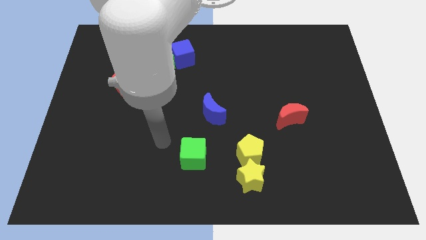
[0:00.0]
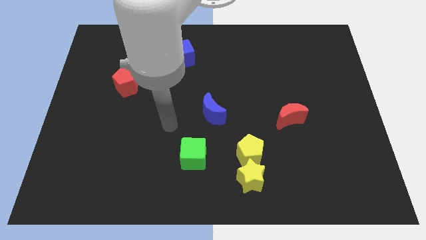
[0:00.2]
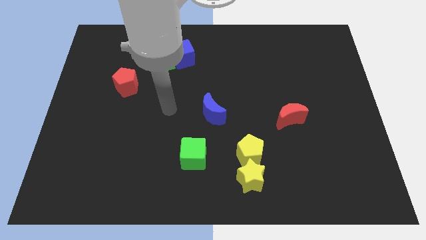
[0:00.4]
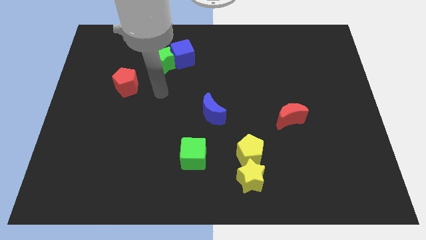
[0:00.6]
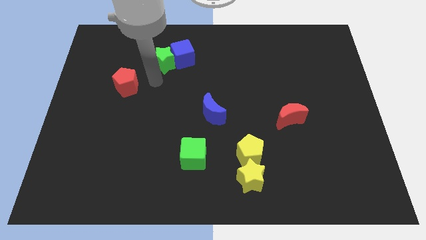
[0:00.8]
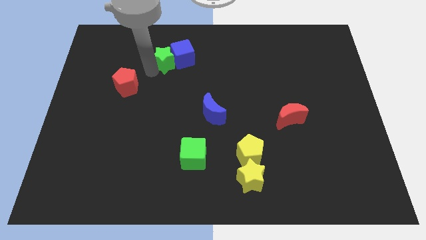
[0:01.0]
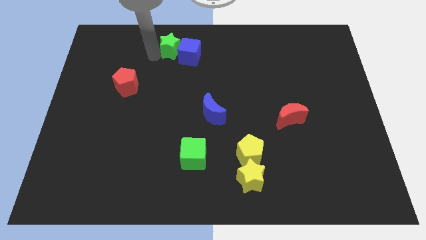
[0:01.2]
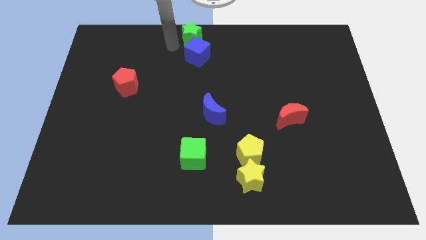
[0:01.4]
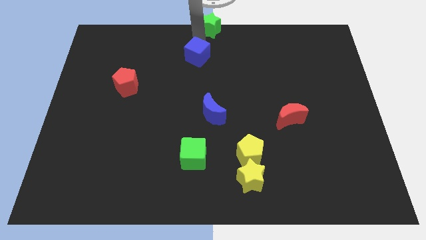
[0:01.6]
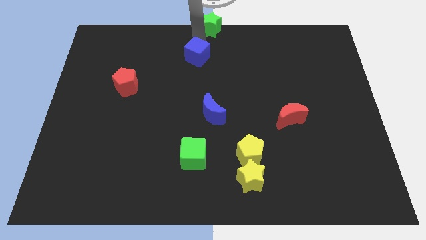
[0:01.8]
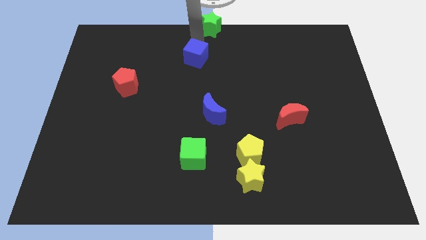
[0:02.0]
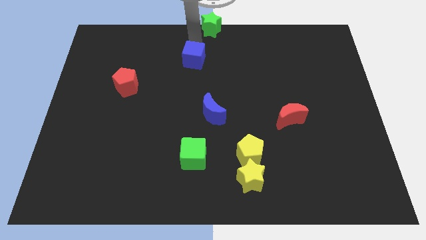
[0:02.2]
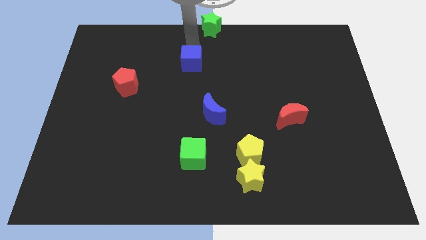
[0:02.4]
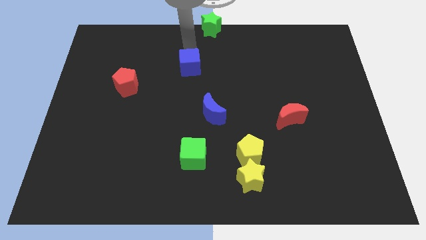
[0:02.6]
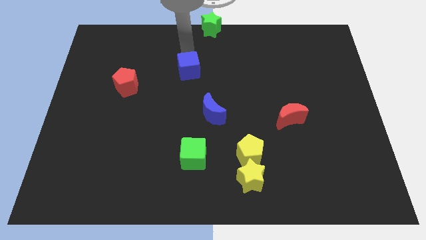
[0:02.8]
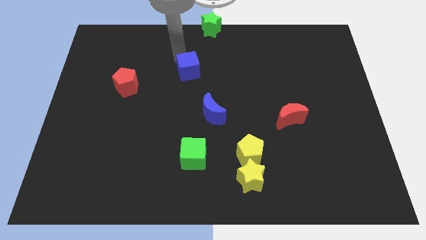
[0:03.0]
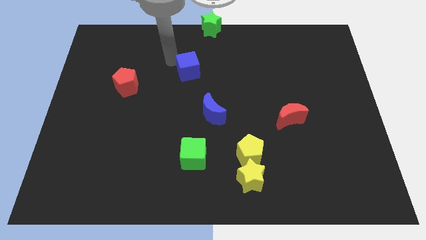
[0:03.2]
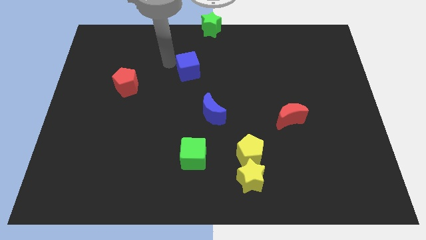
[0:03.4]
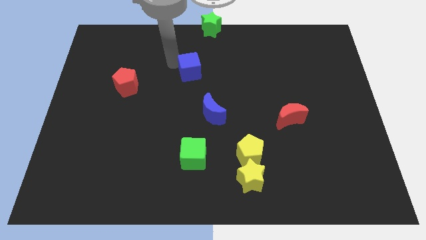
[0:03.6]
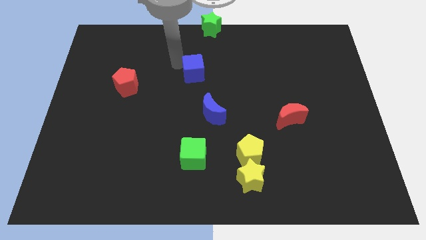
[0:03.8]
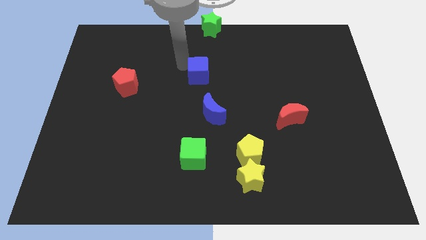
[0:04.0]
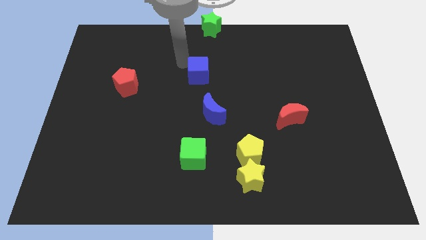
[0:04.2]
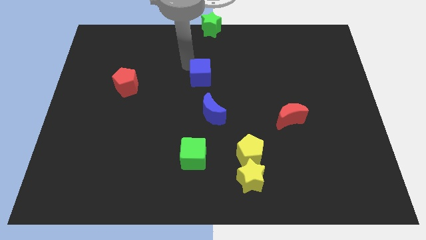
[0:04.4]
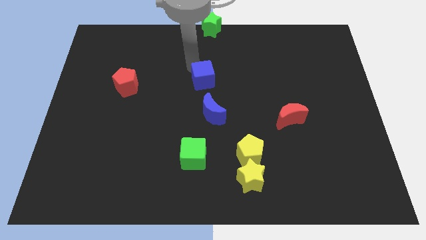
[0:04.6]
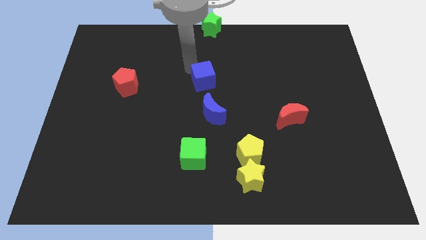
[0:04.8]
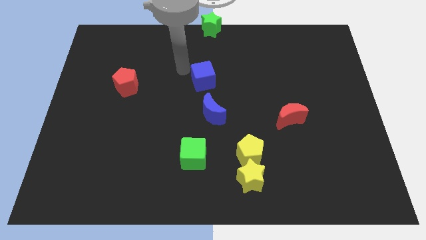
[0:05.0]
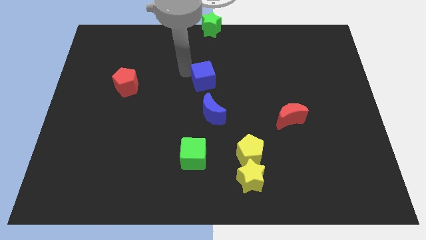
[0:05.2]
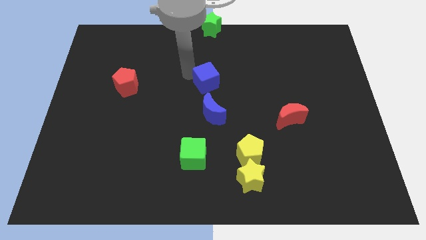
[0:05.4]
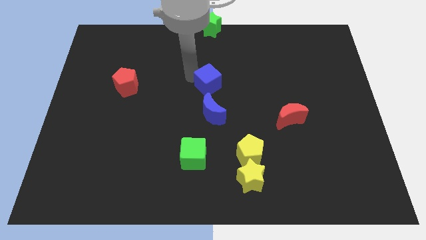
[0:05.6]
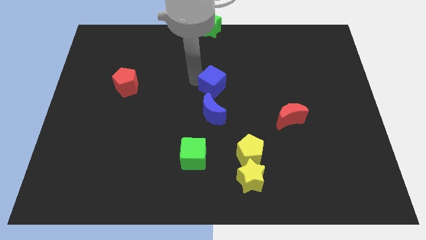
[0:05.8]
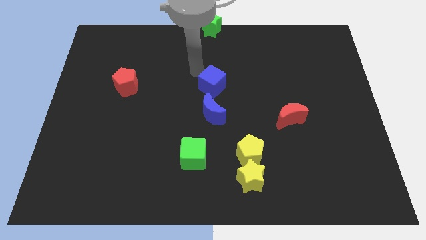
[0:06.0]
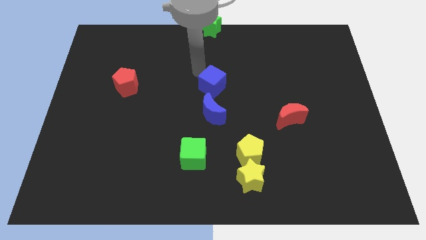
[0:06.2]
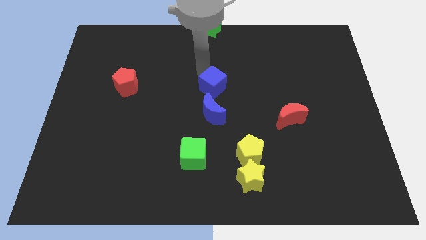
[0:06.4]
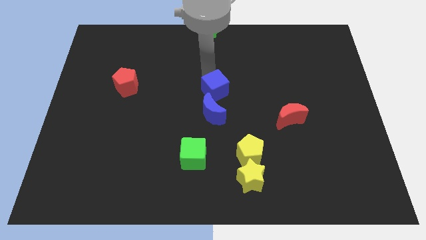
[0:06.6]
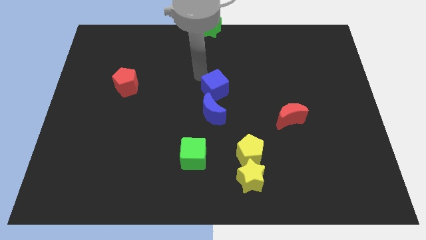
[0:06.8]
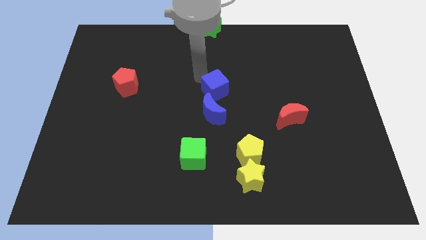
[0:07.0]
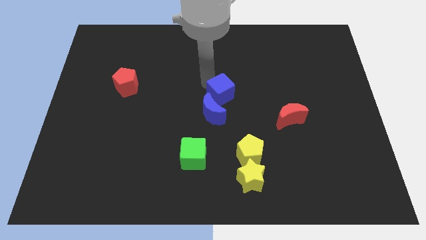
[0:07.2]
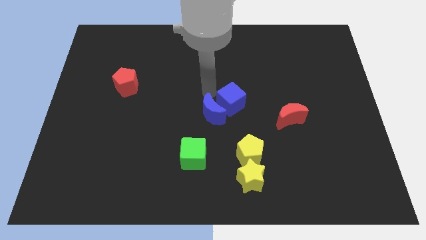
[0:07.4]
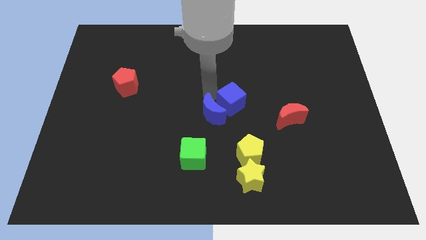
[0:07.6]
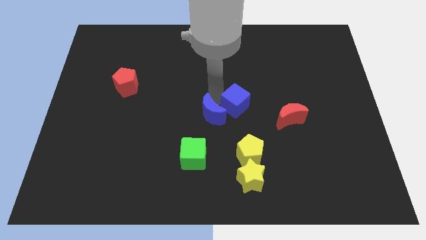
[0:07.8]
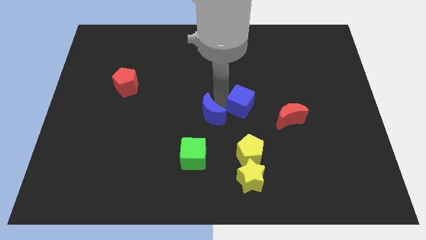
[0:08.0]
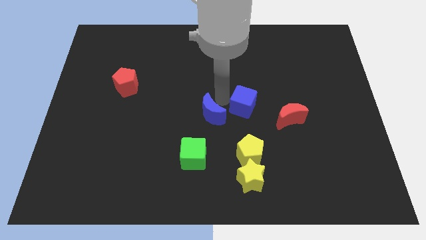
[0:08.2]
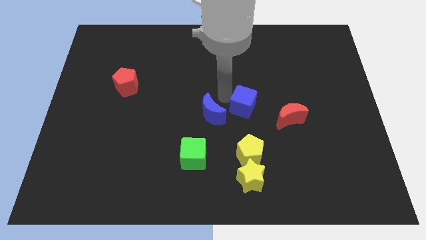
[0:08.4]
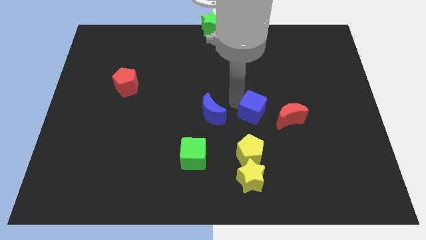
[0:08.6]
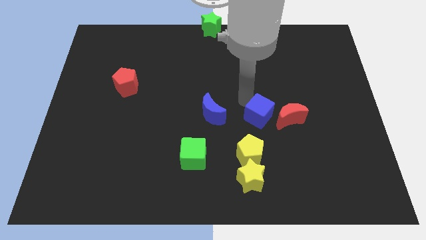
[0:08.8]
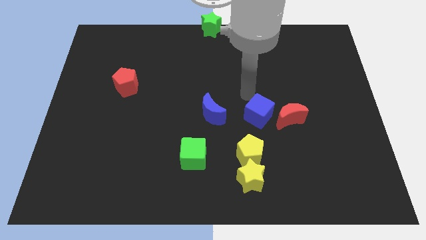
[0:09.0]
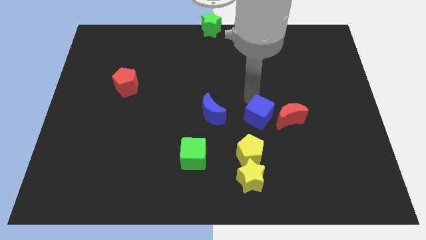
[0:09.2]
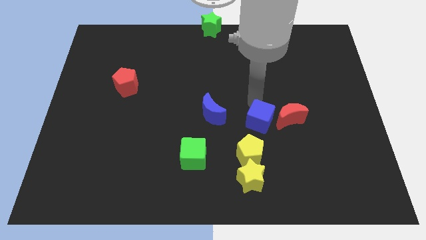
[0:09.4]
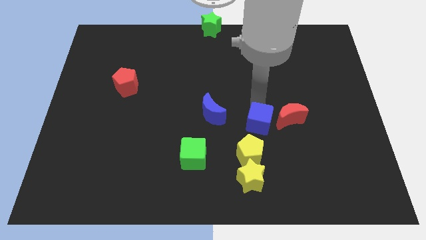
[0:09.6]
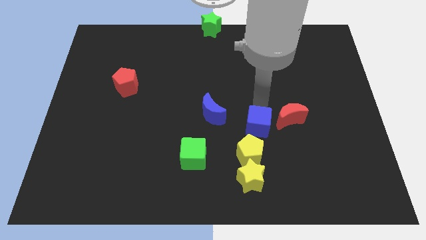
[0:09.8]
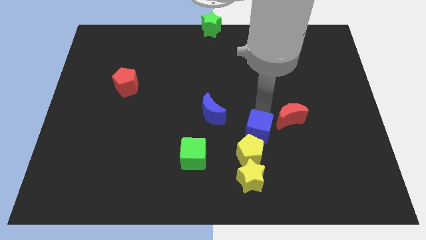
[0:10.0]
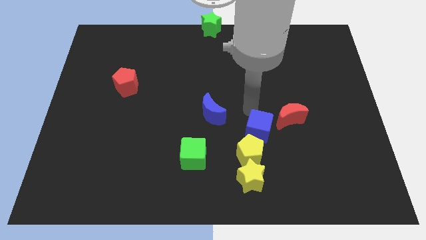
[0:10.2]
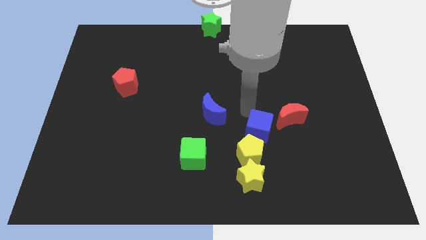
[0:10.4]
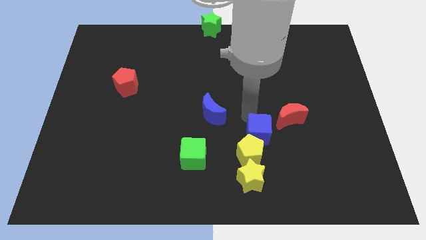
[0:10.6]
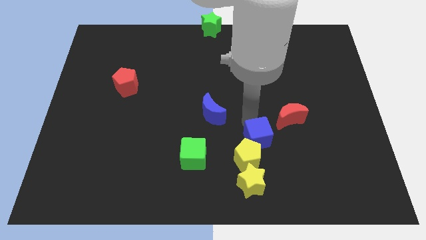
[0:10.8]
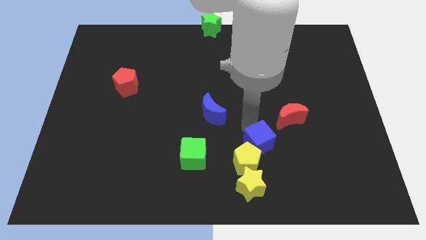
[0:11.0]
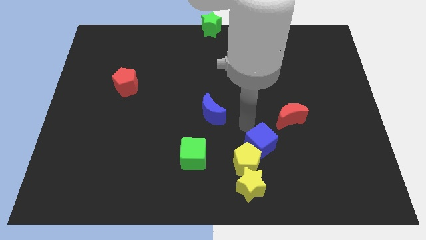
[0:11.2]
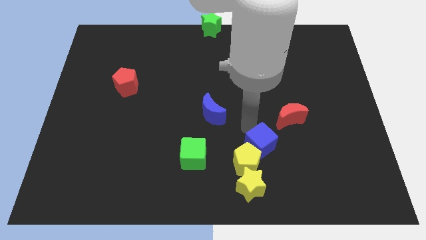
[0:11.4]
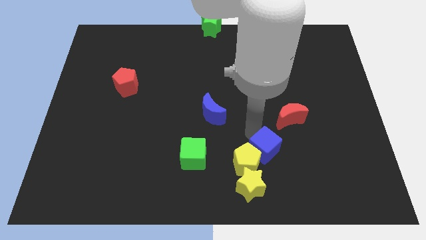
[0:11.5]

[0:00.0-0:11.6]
push the blue cube to the top right of the yellow star

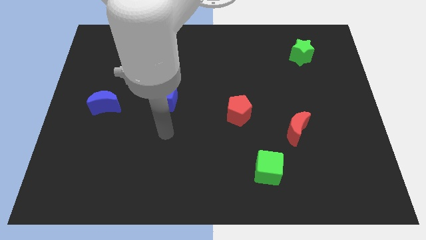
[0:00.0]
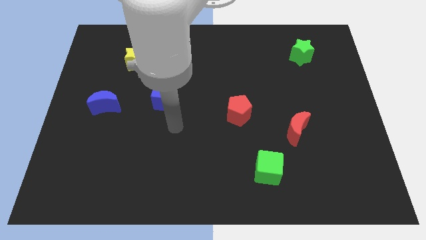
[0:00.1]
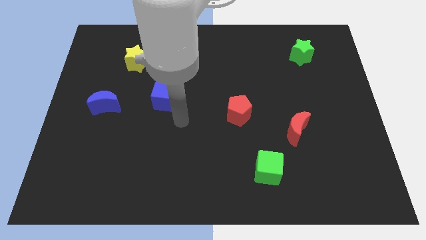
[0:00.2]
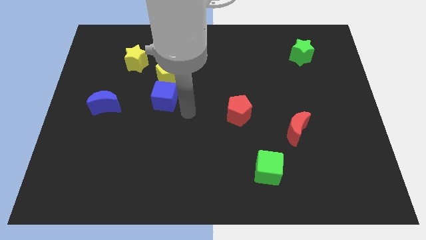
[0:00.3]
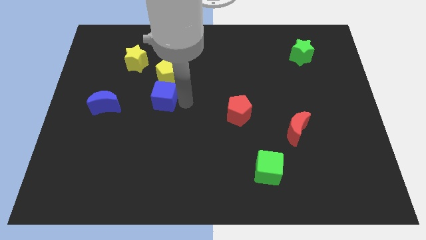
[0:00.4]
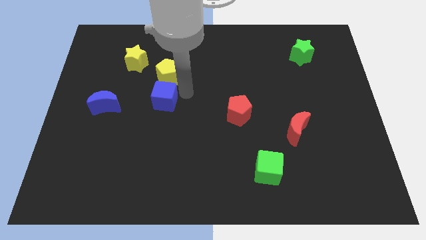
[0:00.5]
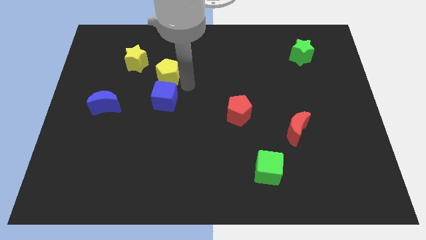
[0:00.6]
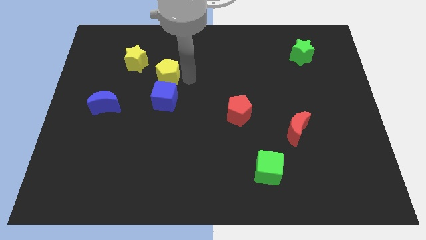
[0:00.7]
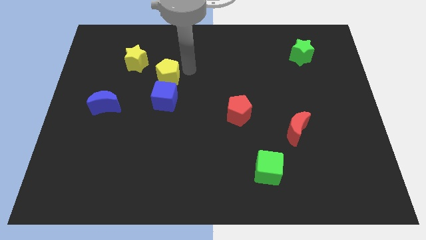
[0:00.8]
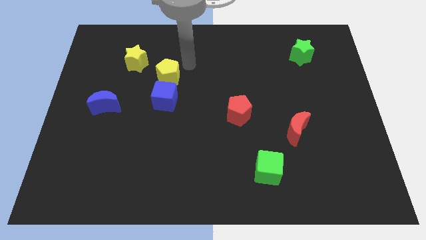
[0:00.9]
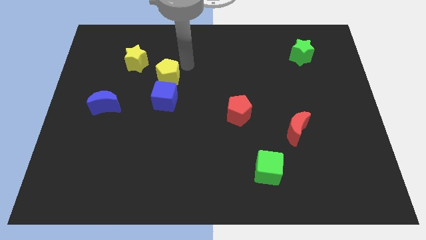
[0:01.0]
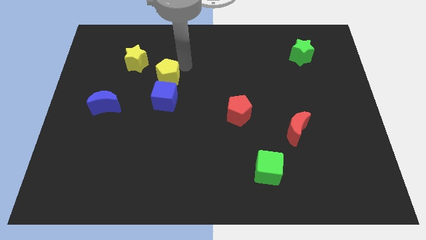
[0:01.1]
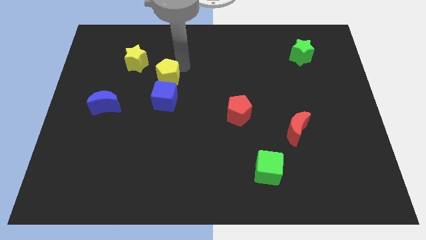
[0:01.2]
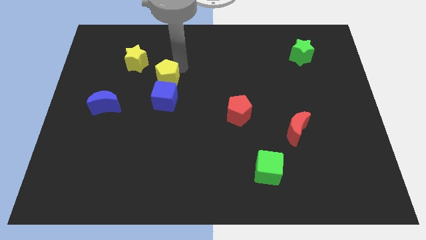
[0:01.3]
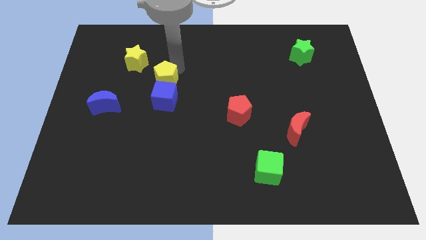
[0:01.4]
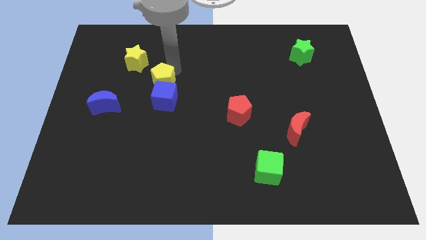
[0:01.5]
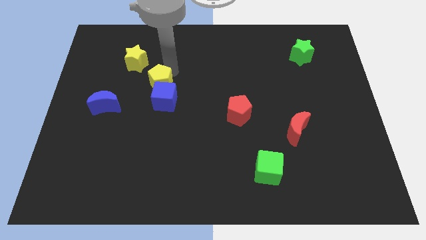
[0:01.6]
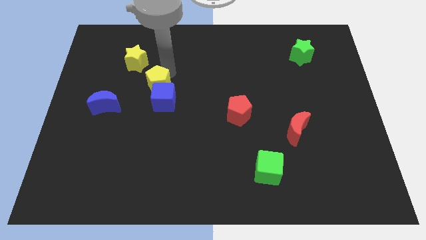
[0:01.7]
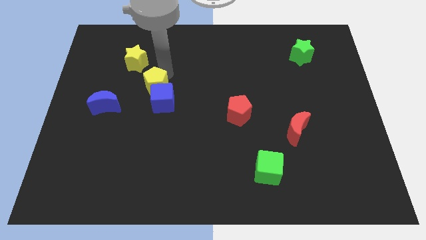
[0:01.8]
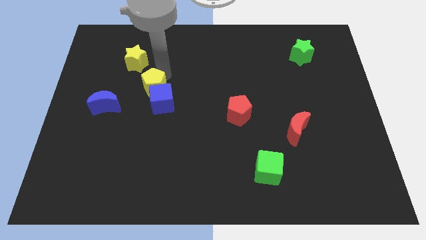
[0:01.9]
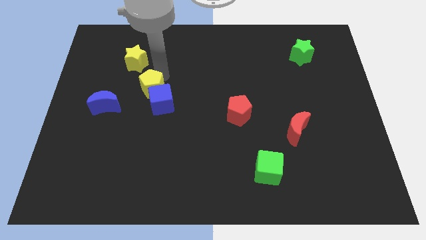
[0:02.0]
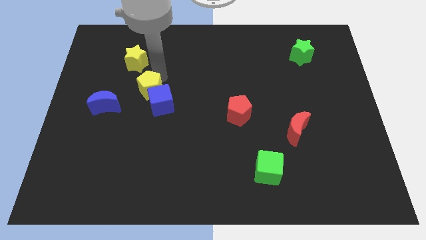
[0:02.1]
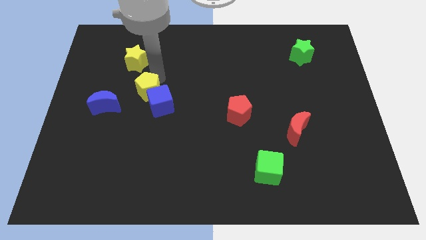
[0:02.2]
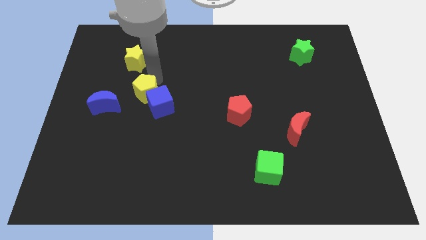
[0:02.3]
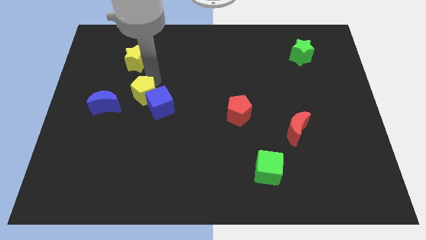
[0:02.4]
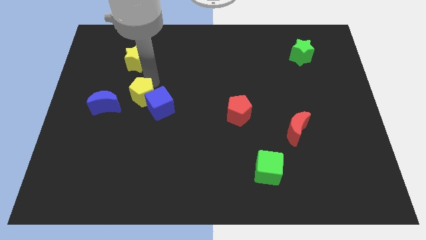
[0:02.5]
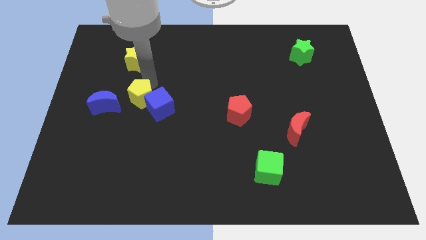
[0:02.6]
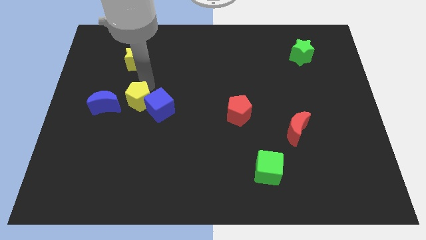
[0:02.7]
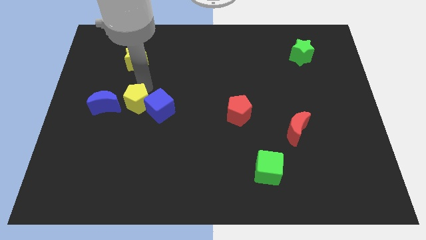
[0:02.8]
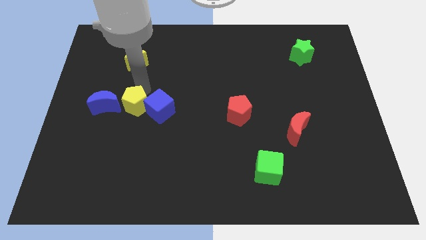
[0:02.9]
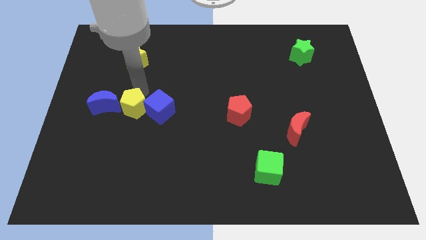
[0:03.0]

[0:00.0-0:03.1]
move the yellow pentagon to the bottom right of the blue moon
